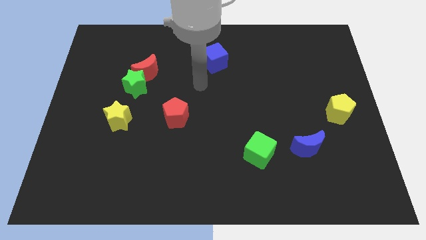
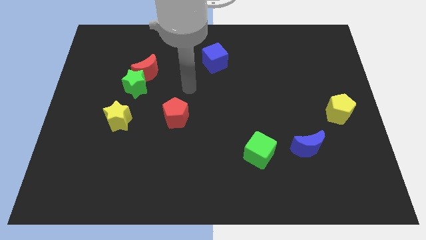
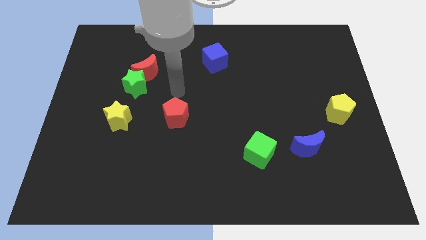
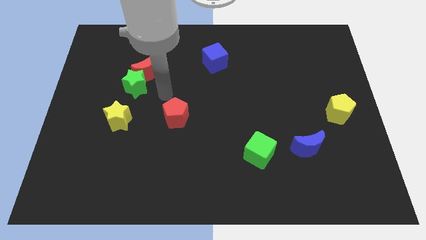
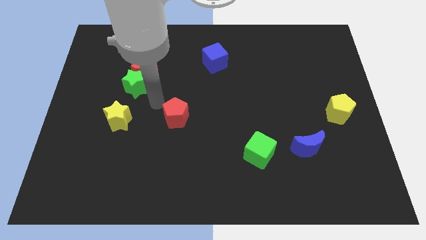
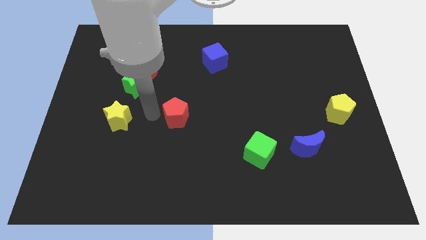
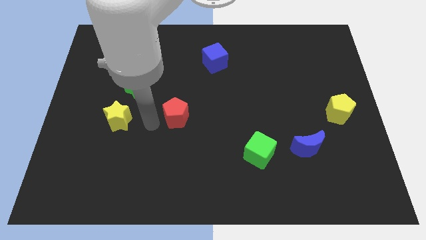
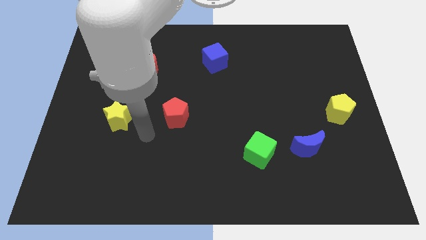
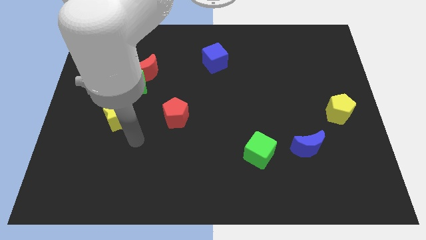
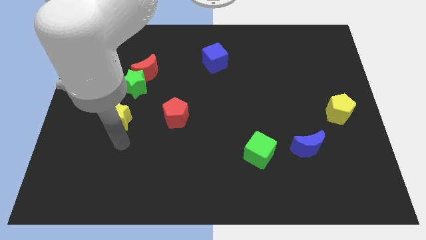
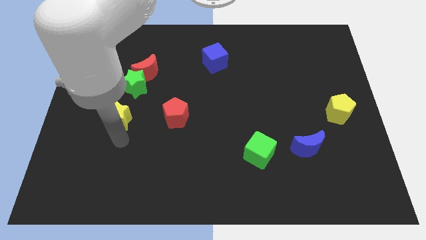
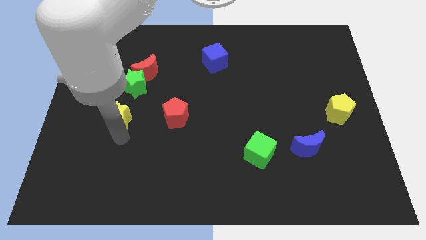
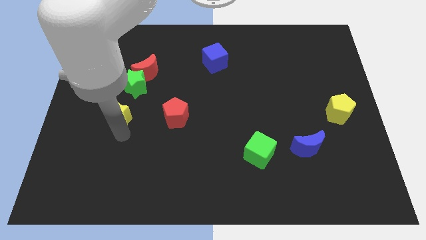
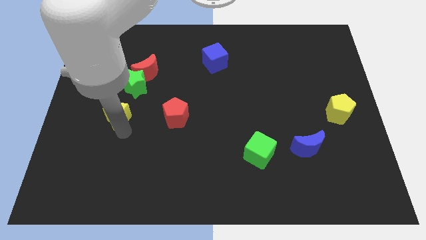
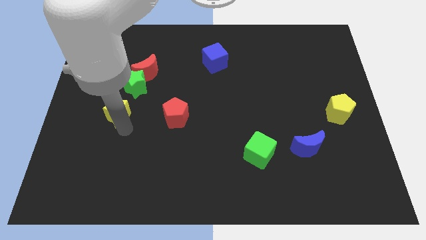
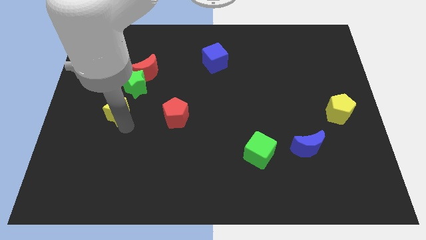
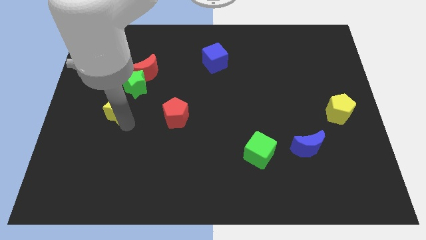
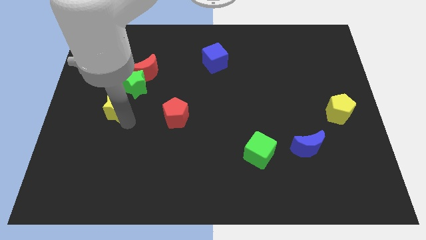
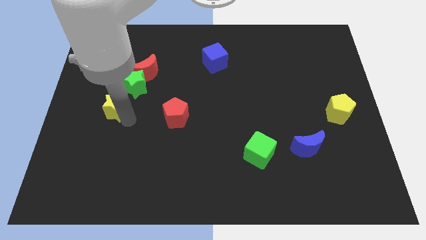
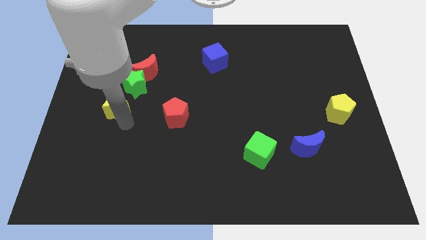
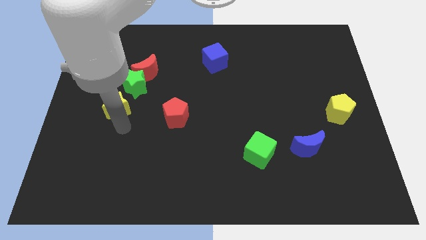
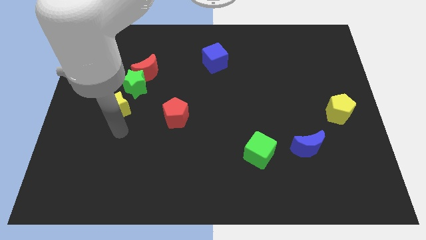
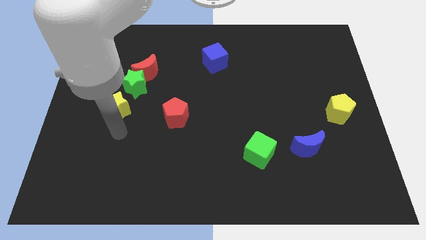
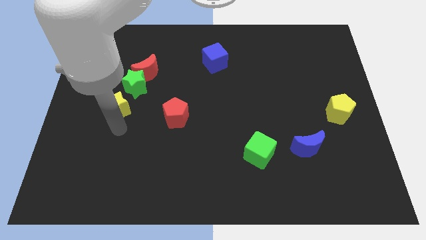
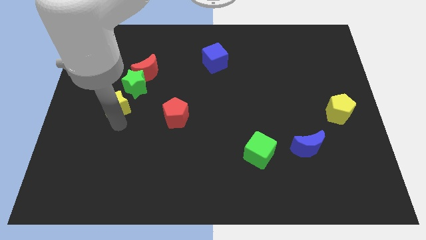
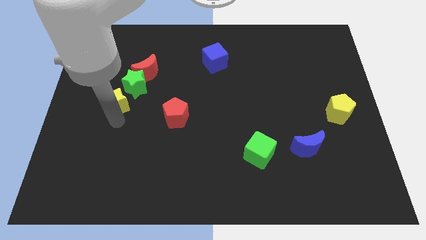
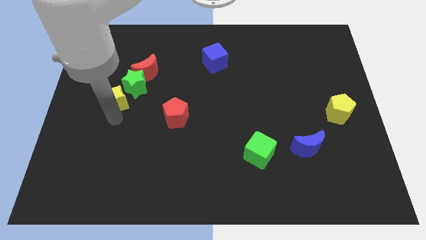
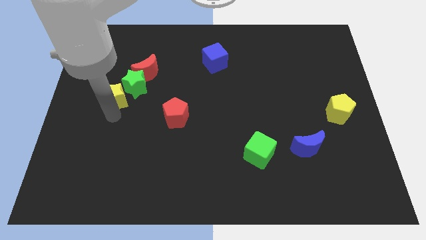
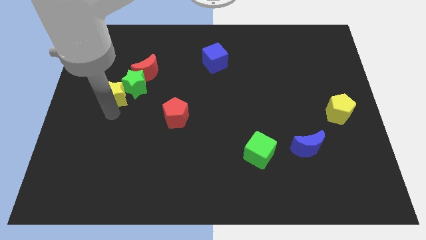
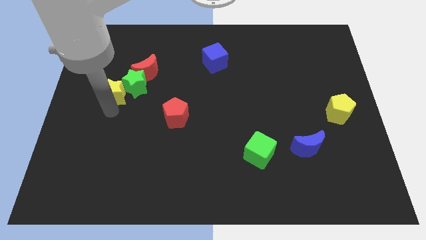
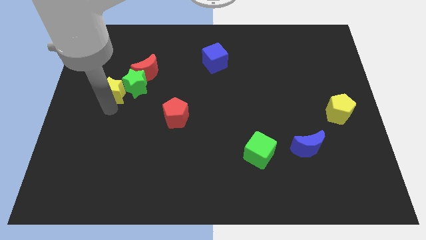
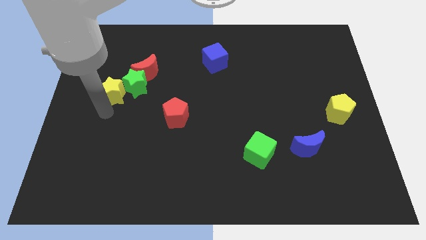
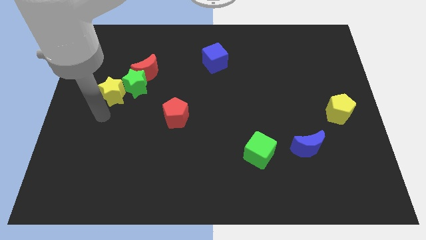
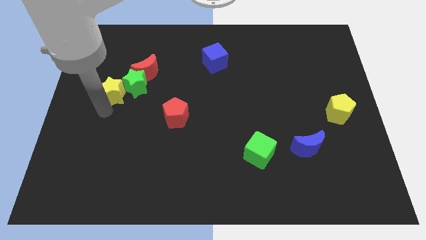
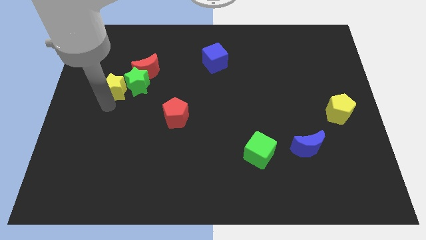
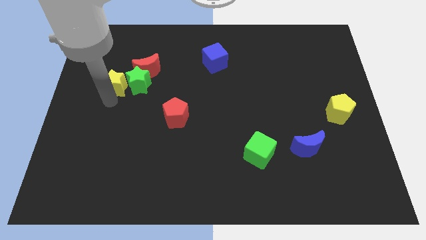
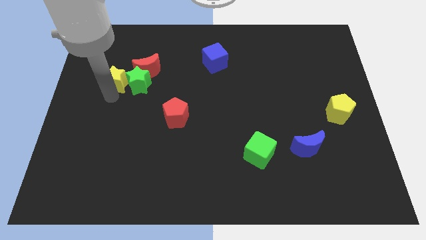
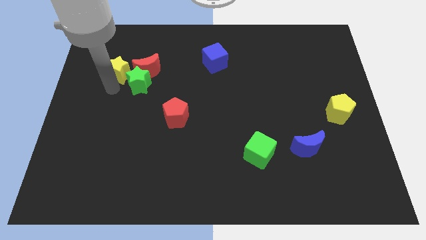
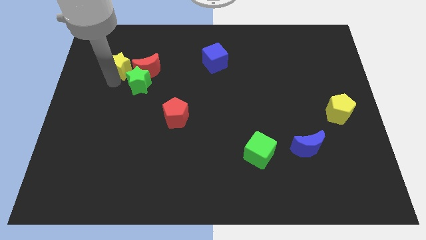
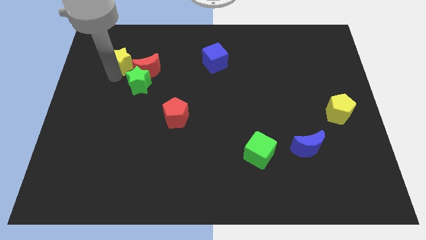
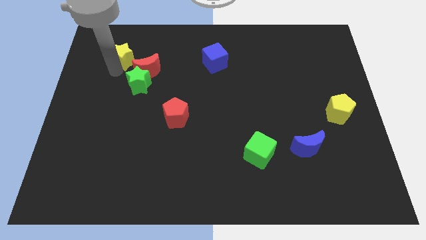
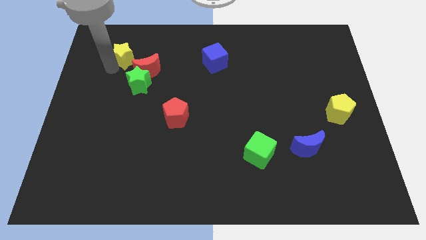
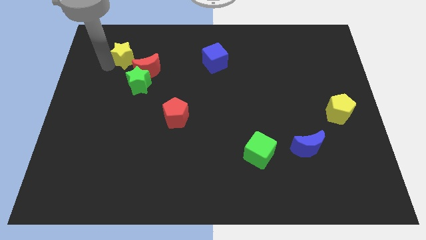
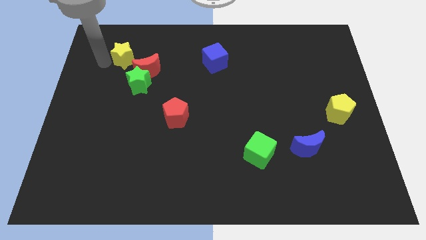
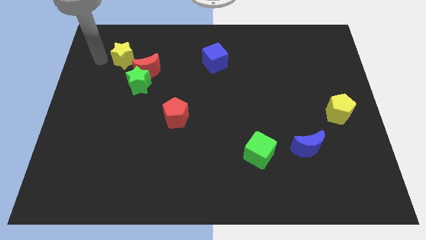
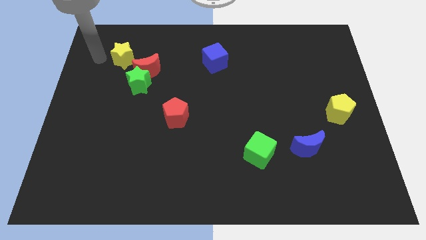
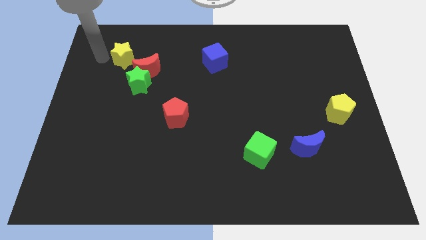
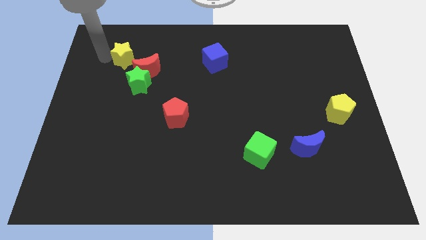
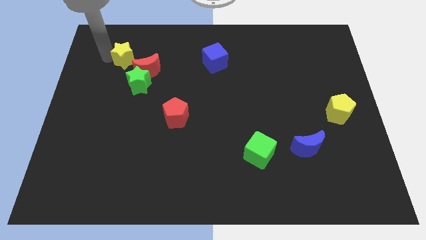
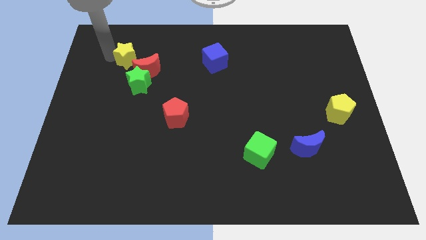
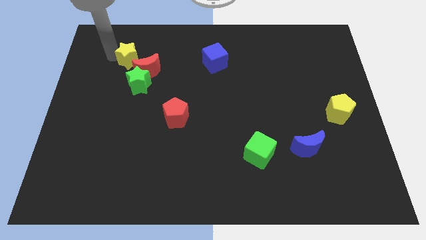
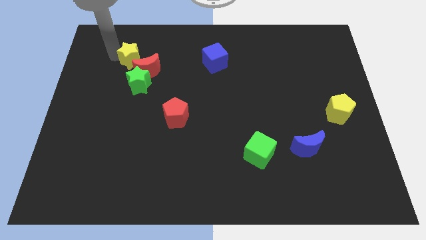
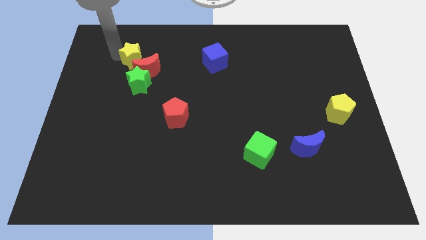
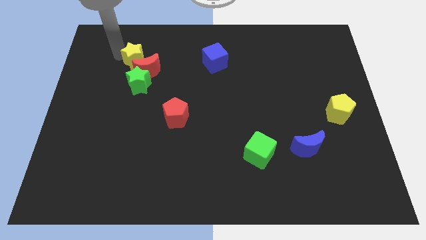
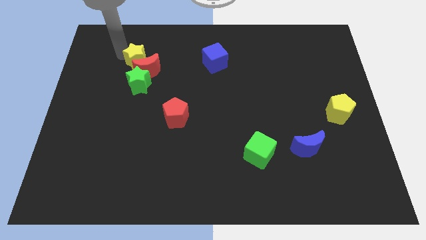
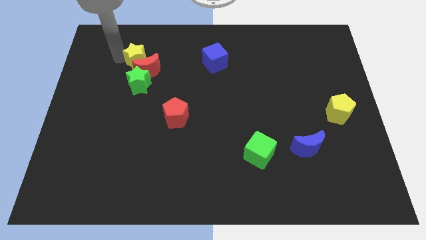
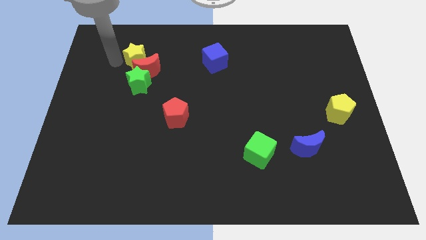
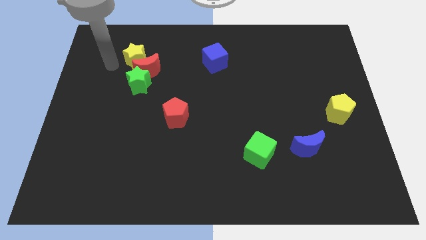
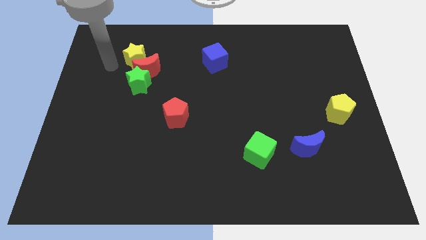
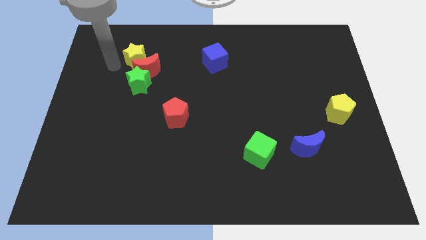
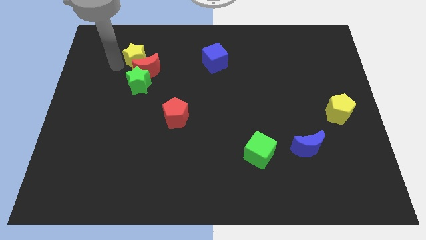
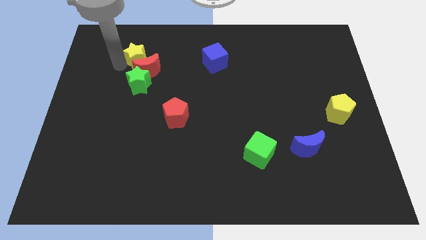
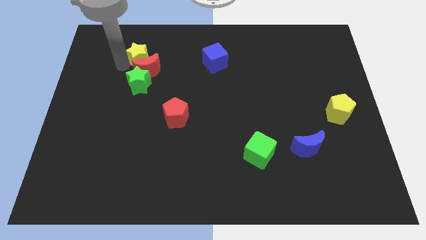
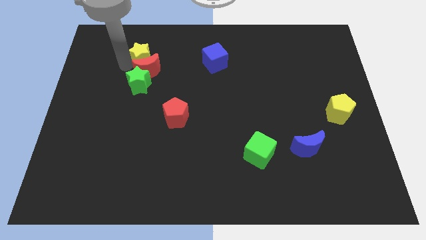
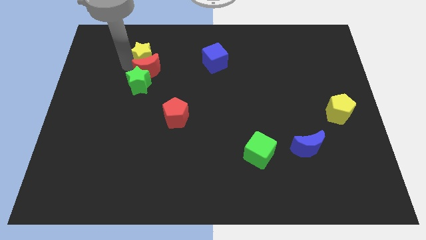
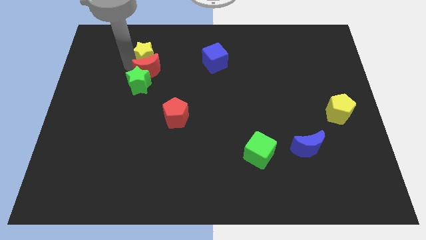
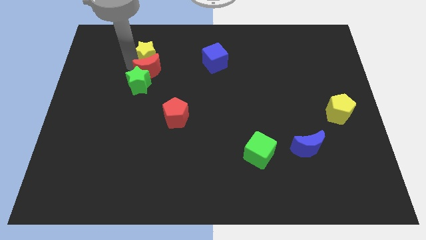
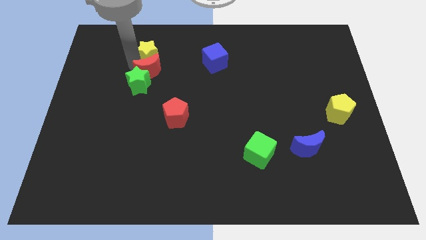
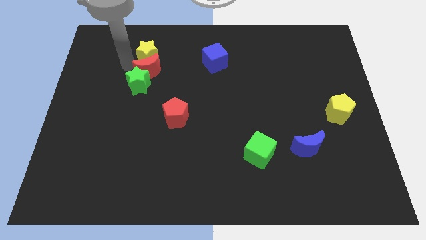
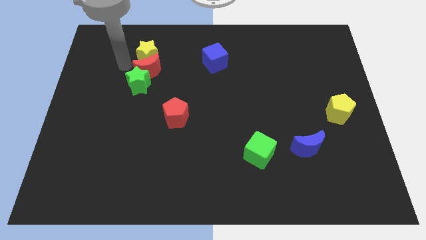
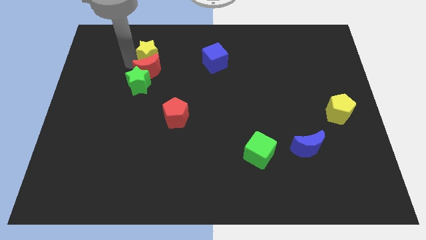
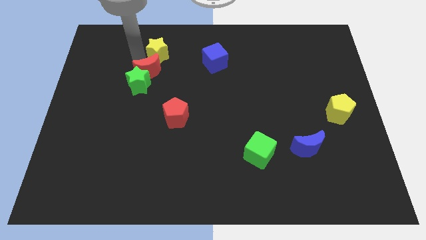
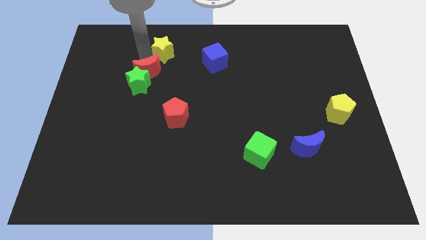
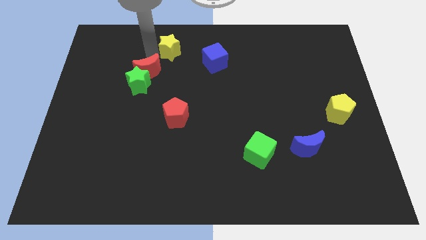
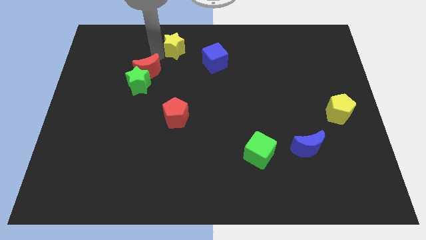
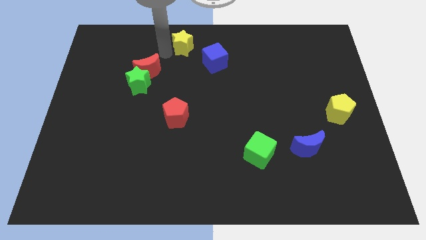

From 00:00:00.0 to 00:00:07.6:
slide the yellow star to the top side
